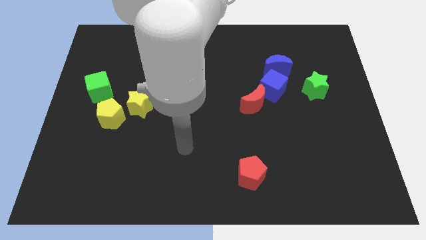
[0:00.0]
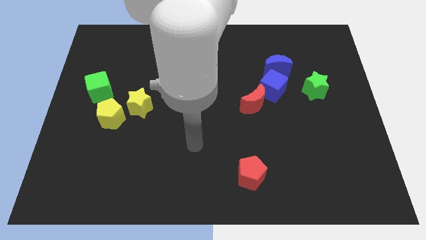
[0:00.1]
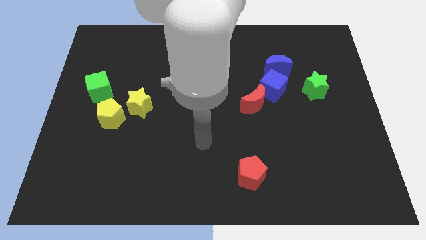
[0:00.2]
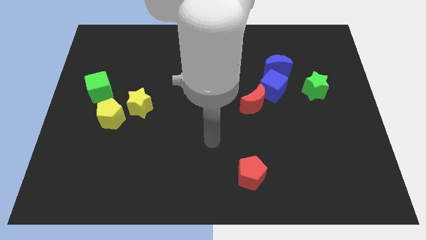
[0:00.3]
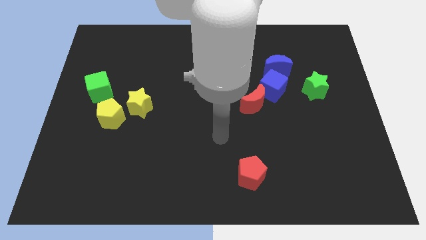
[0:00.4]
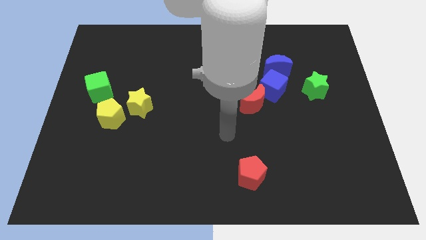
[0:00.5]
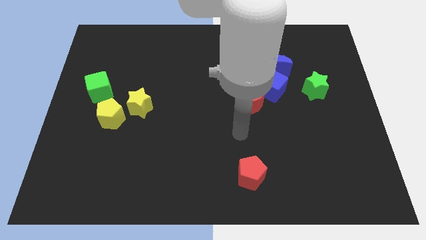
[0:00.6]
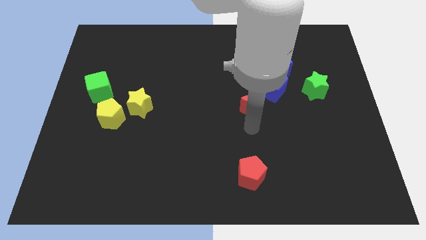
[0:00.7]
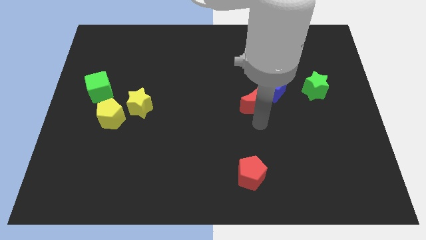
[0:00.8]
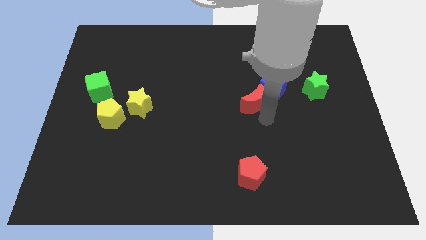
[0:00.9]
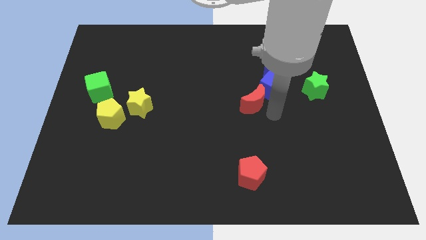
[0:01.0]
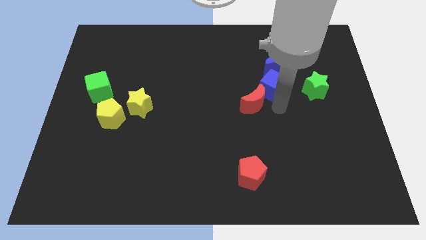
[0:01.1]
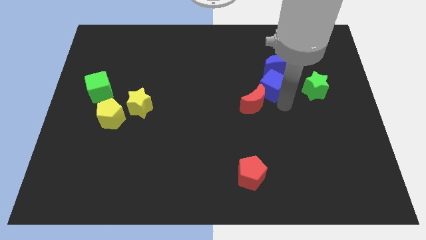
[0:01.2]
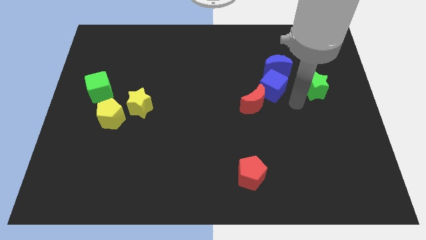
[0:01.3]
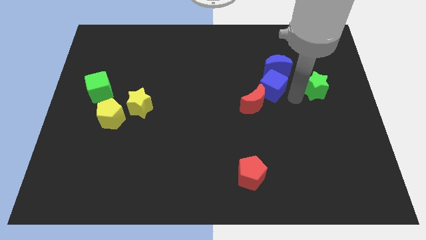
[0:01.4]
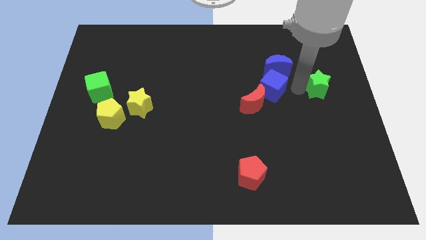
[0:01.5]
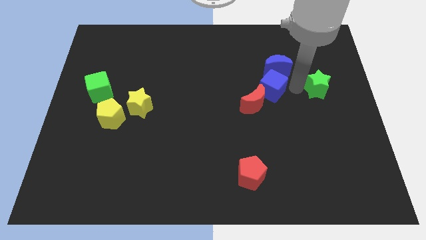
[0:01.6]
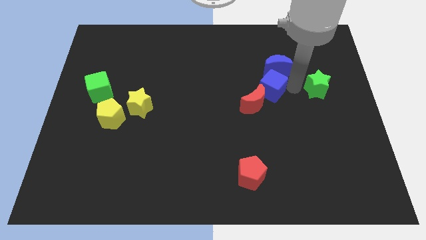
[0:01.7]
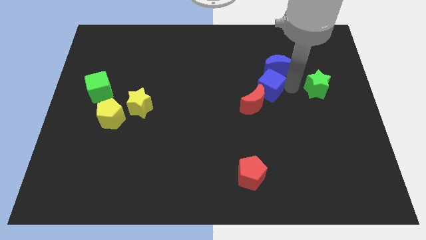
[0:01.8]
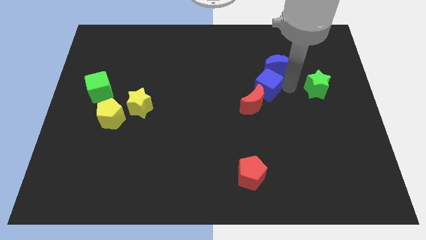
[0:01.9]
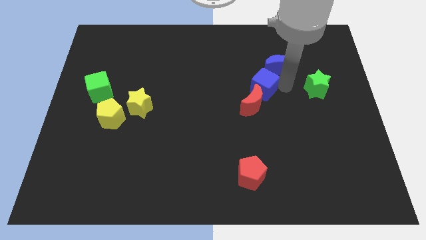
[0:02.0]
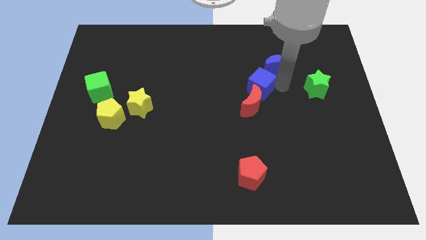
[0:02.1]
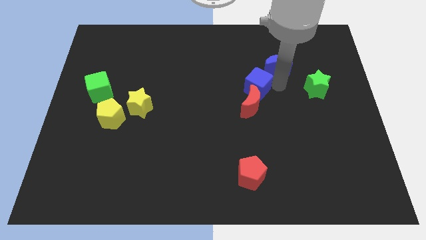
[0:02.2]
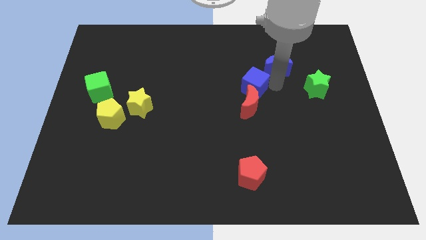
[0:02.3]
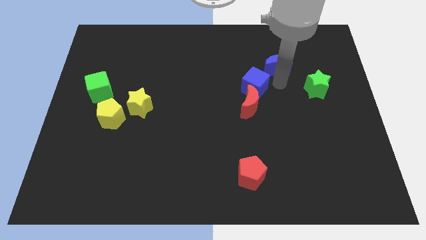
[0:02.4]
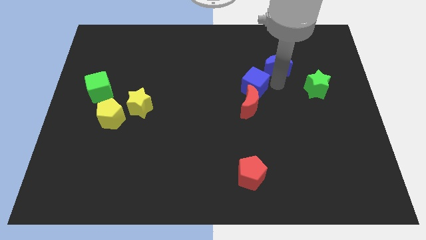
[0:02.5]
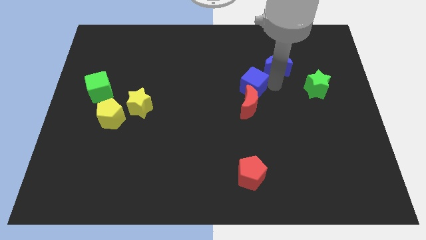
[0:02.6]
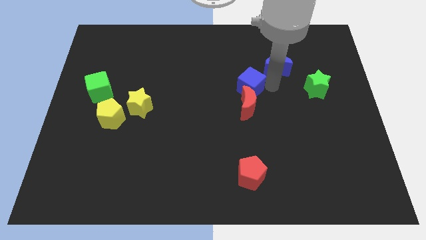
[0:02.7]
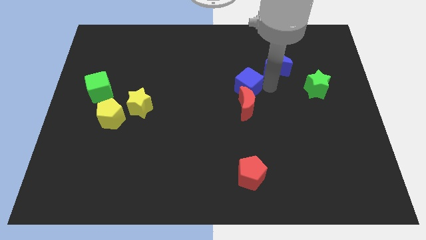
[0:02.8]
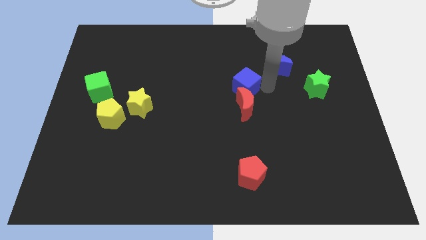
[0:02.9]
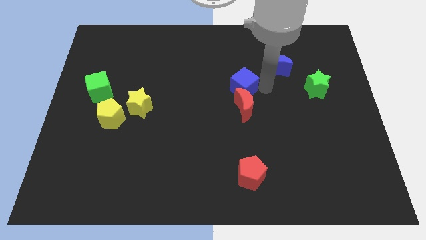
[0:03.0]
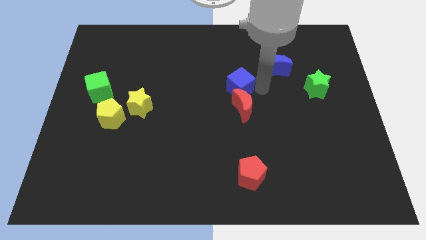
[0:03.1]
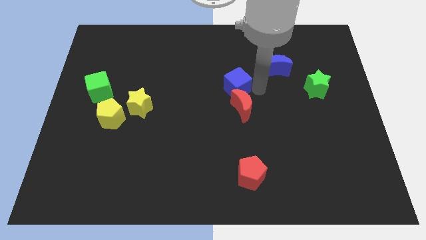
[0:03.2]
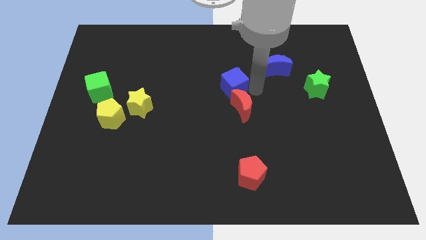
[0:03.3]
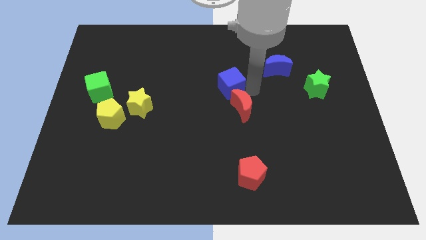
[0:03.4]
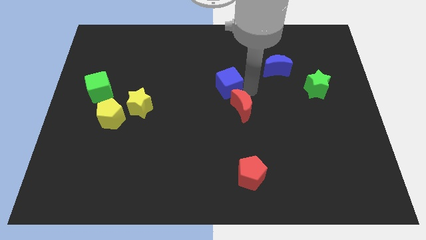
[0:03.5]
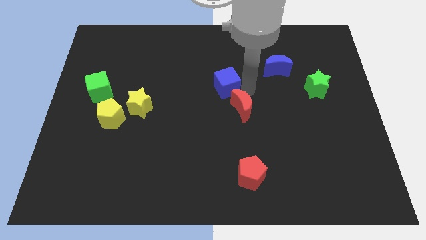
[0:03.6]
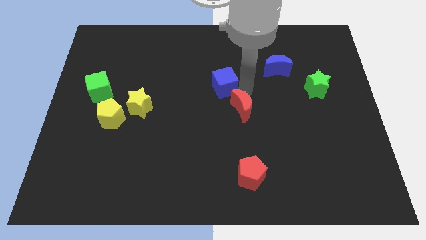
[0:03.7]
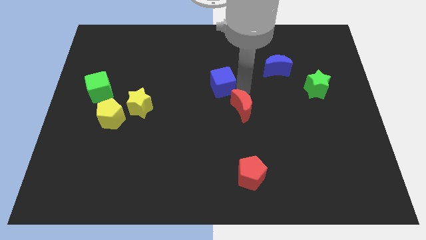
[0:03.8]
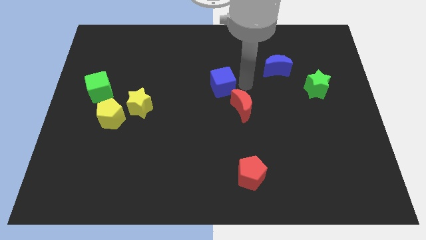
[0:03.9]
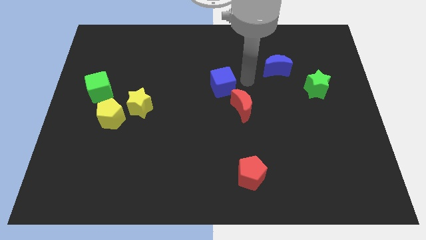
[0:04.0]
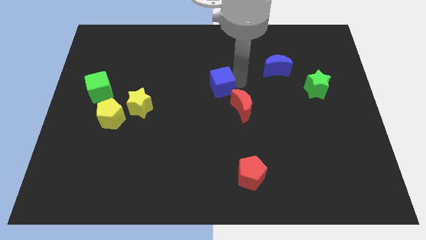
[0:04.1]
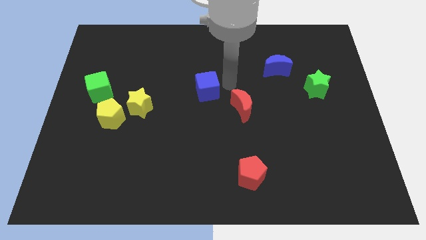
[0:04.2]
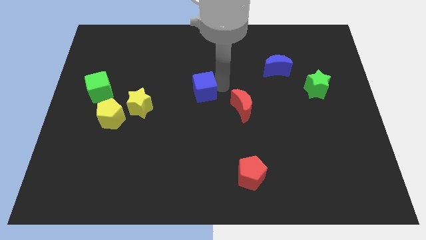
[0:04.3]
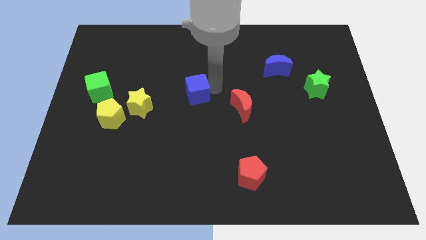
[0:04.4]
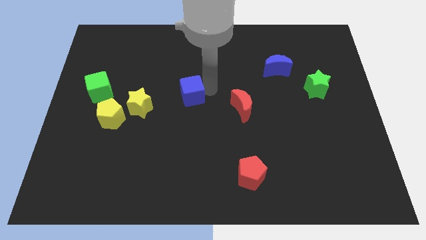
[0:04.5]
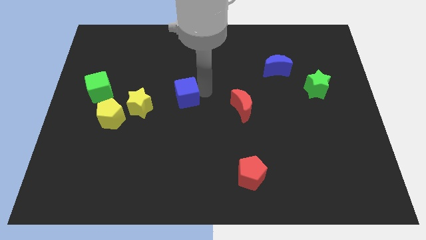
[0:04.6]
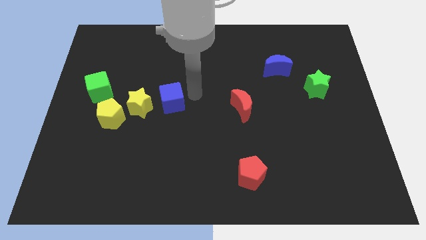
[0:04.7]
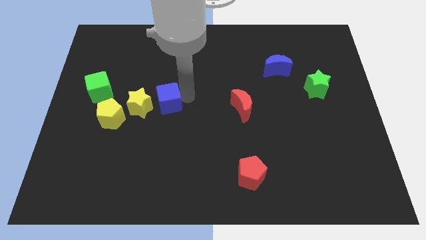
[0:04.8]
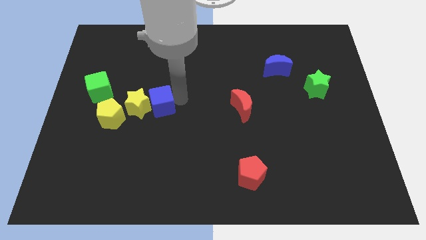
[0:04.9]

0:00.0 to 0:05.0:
move the blue cube to the yellow star

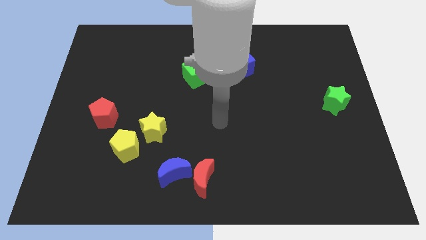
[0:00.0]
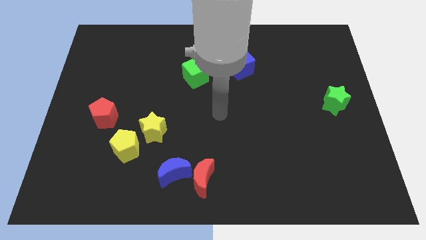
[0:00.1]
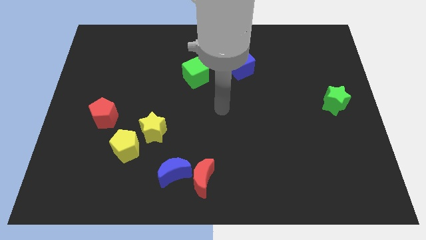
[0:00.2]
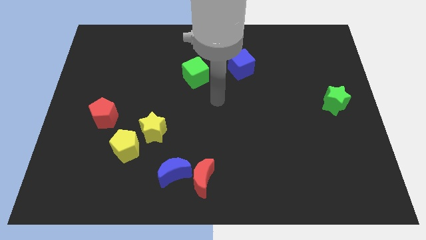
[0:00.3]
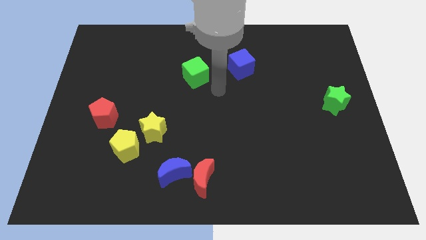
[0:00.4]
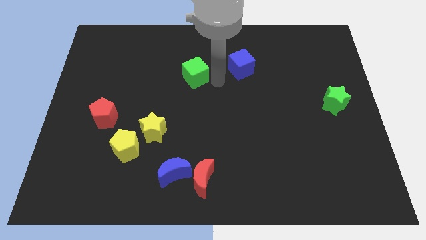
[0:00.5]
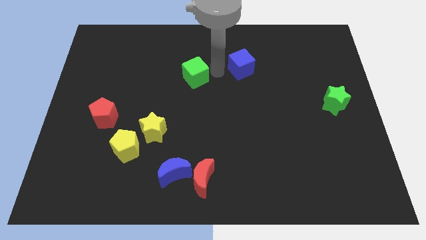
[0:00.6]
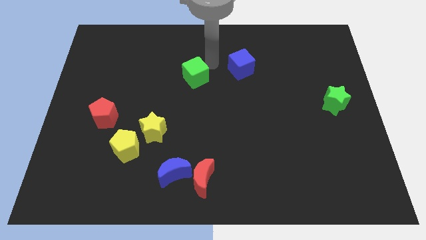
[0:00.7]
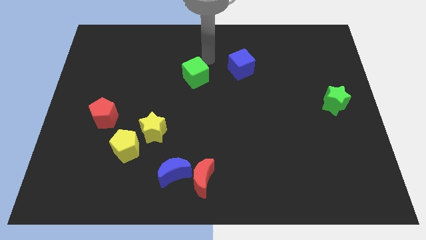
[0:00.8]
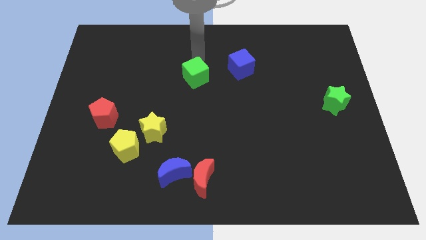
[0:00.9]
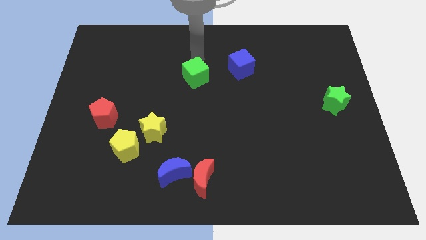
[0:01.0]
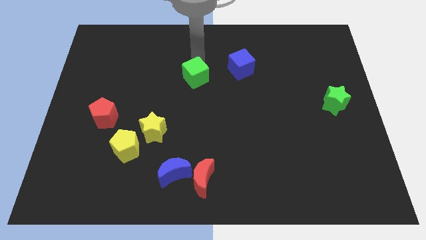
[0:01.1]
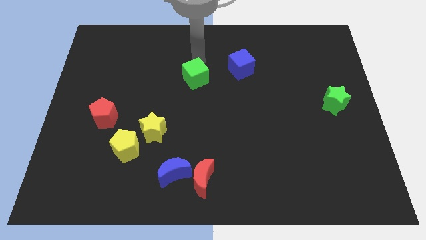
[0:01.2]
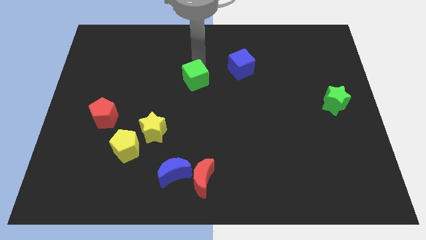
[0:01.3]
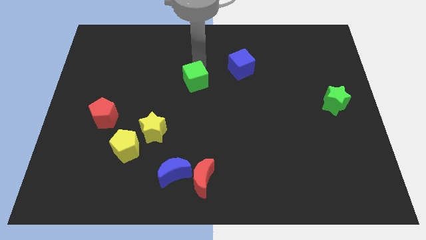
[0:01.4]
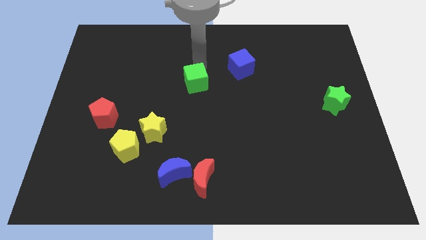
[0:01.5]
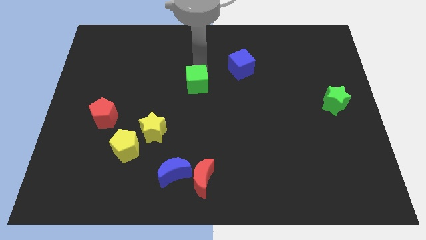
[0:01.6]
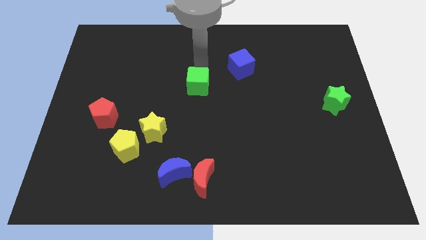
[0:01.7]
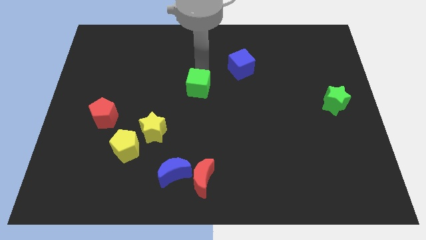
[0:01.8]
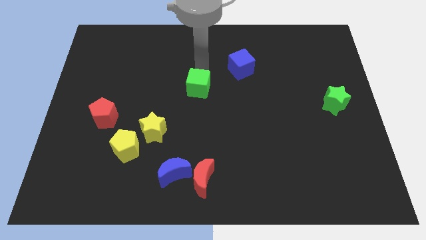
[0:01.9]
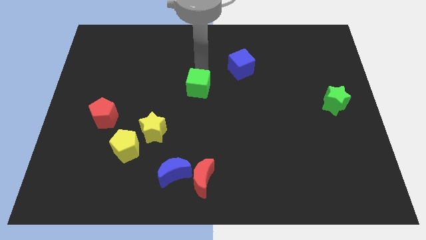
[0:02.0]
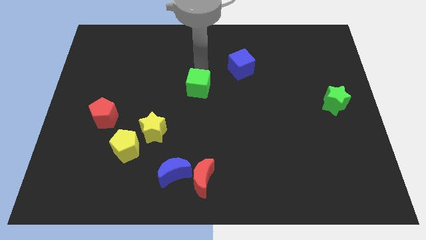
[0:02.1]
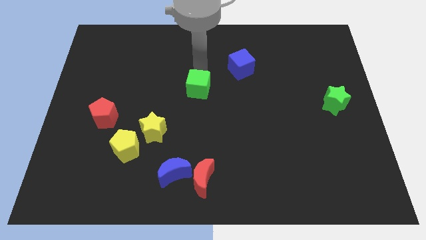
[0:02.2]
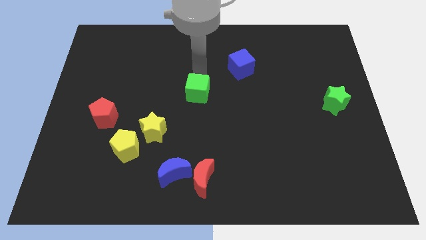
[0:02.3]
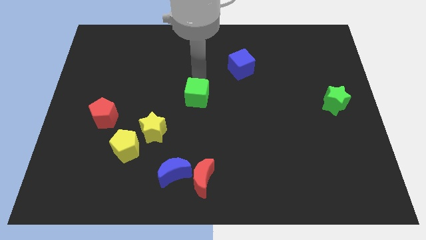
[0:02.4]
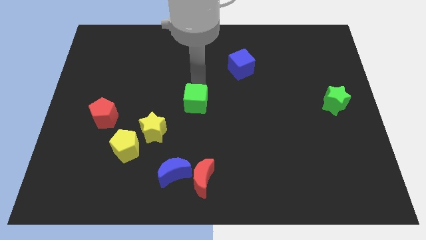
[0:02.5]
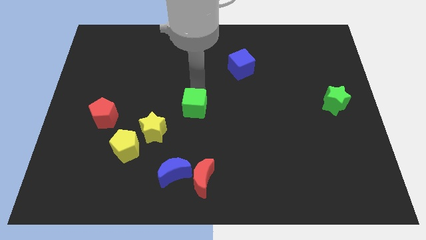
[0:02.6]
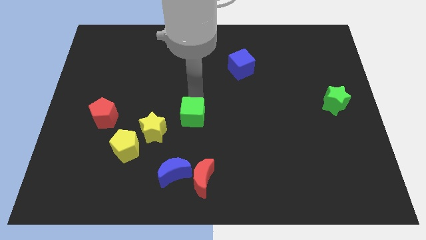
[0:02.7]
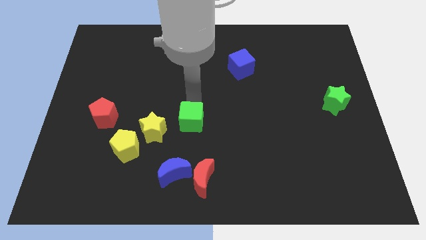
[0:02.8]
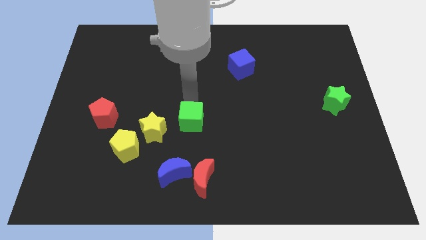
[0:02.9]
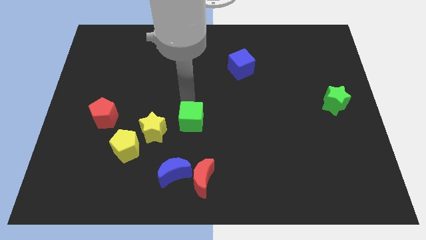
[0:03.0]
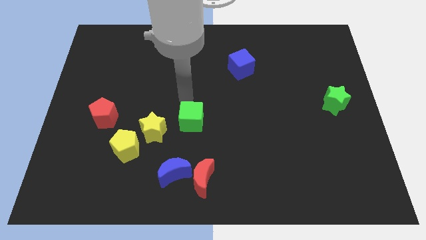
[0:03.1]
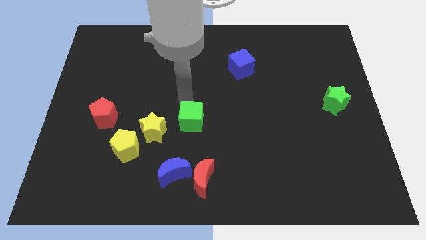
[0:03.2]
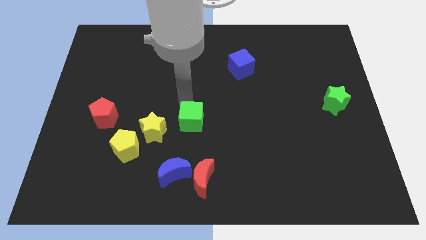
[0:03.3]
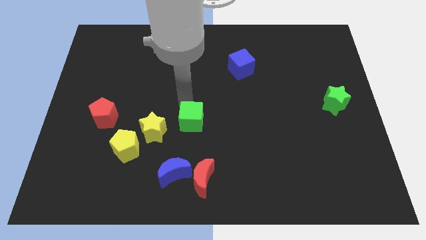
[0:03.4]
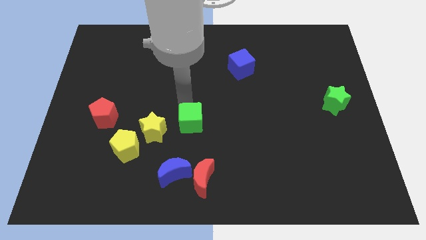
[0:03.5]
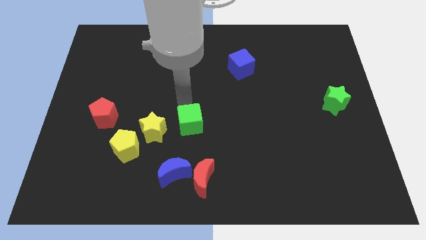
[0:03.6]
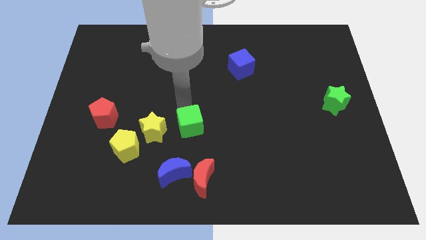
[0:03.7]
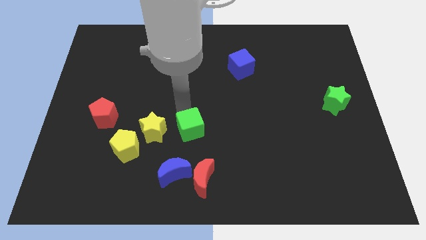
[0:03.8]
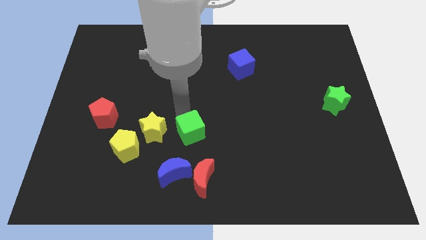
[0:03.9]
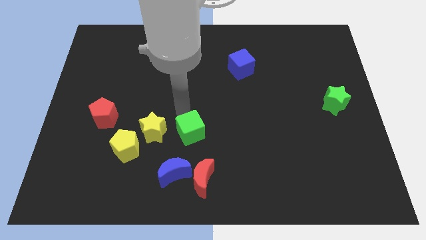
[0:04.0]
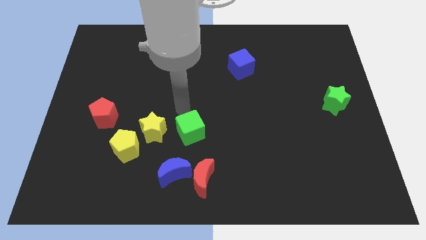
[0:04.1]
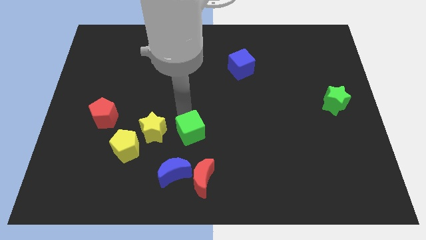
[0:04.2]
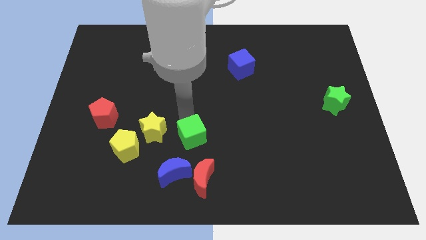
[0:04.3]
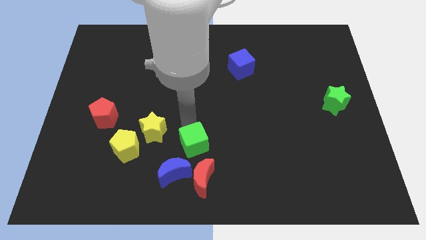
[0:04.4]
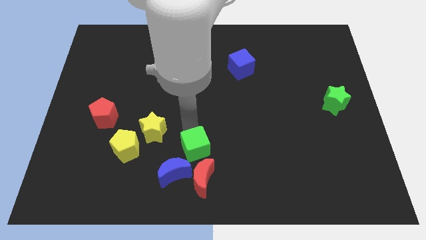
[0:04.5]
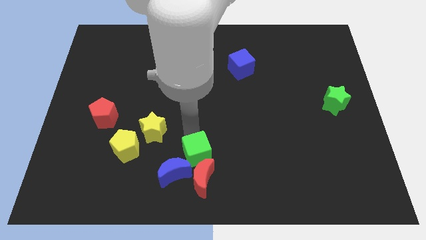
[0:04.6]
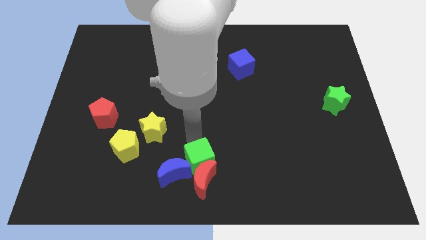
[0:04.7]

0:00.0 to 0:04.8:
push the green cube to the red moon
